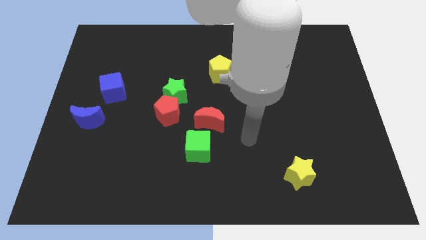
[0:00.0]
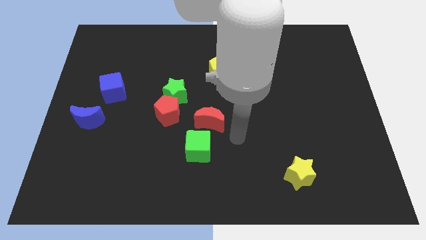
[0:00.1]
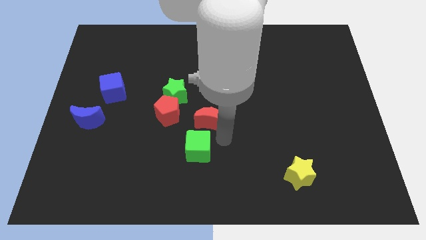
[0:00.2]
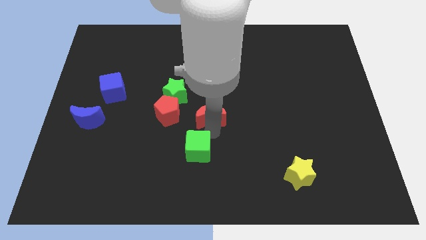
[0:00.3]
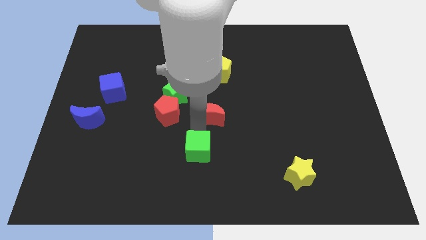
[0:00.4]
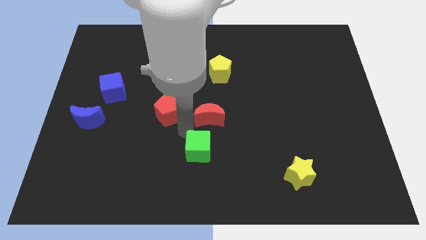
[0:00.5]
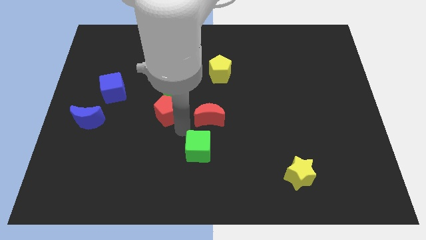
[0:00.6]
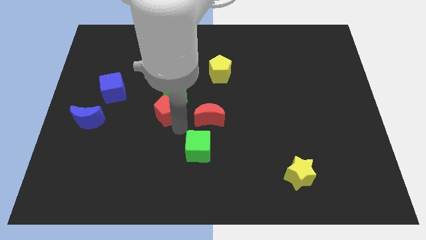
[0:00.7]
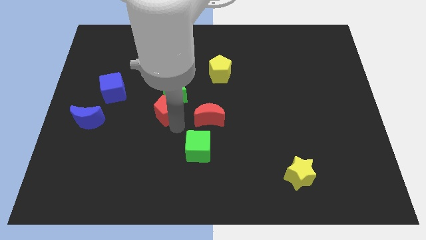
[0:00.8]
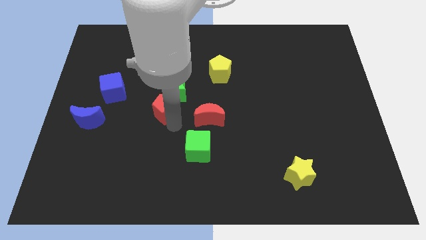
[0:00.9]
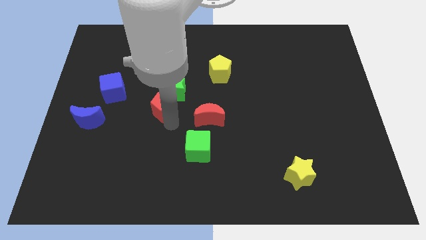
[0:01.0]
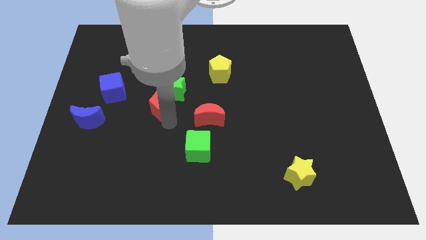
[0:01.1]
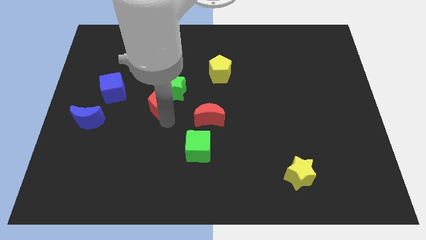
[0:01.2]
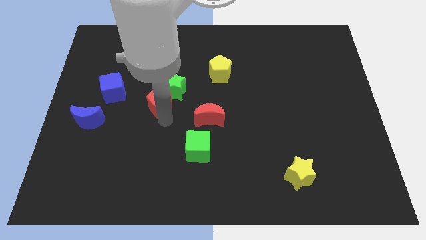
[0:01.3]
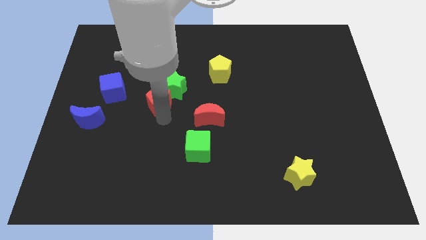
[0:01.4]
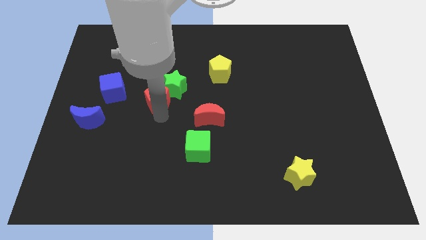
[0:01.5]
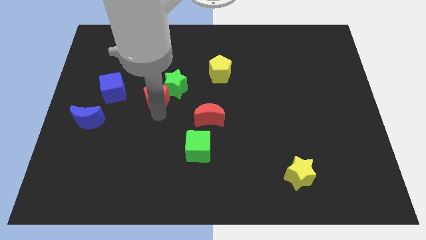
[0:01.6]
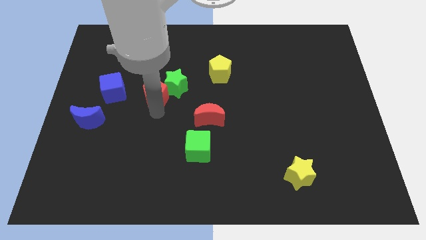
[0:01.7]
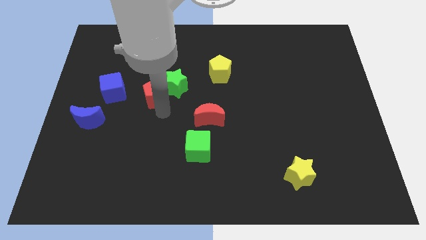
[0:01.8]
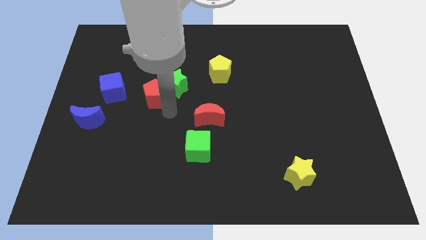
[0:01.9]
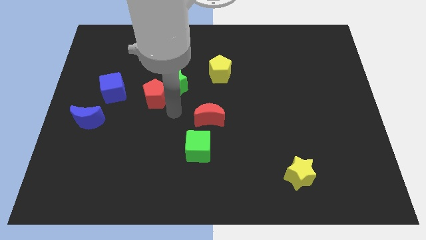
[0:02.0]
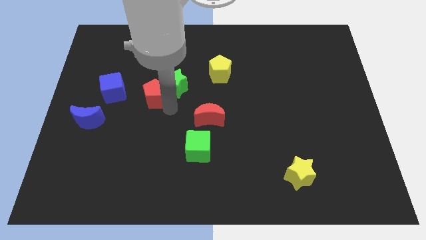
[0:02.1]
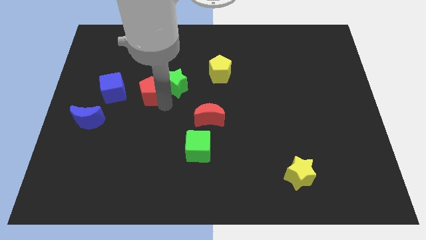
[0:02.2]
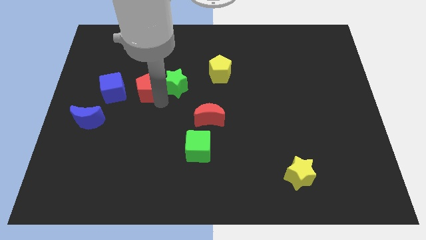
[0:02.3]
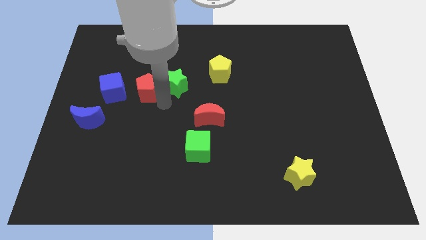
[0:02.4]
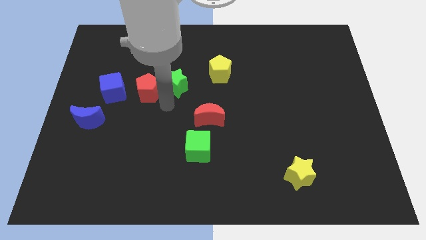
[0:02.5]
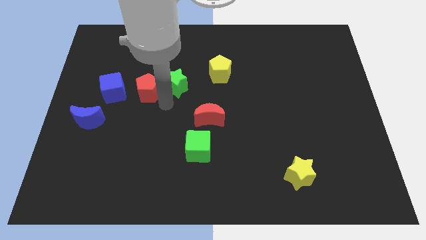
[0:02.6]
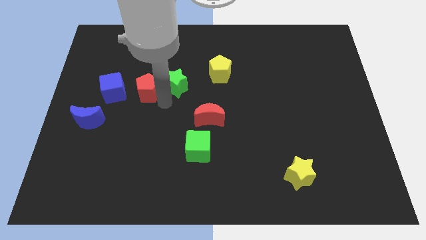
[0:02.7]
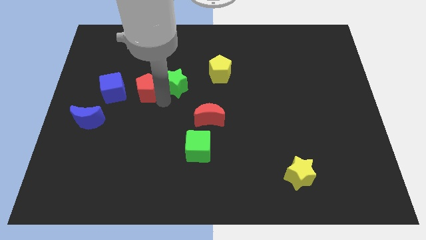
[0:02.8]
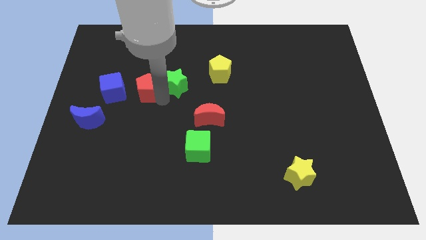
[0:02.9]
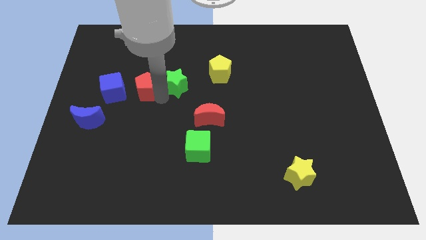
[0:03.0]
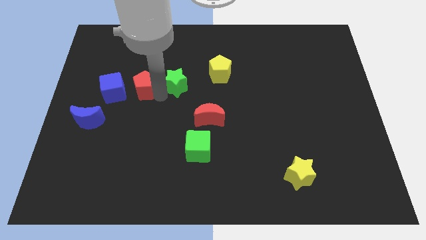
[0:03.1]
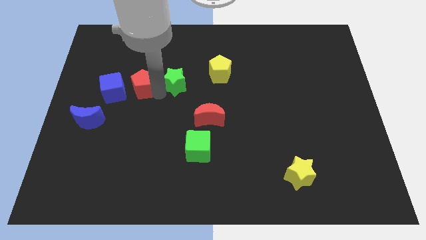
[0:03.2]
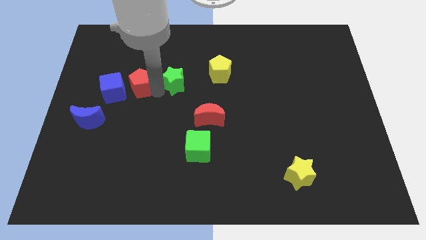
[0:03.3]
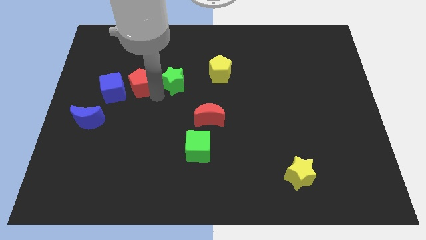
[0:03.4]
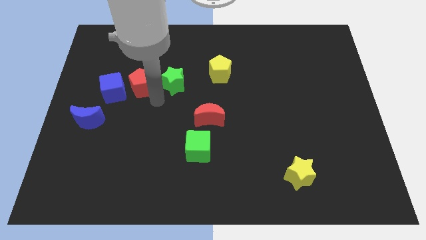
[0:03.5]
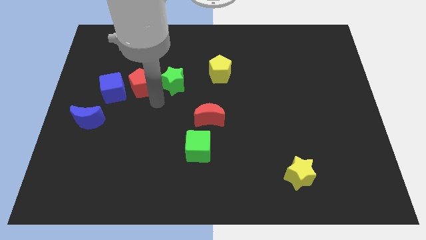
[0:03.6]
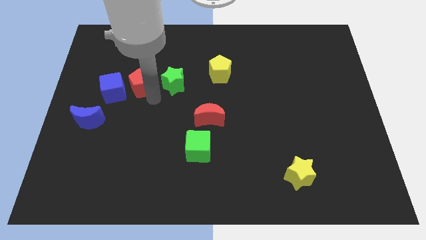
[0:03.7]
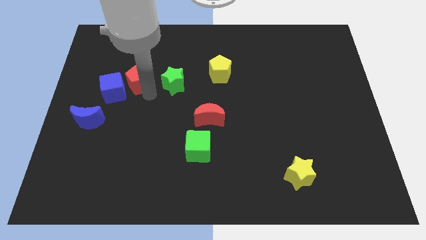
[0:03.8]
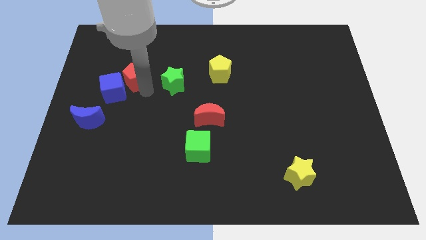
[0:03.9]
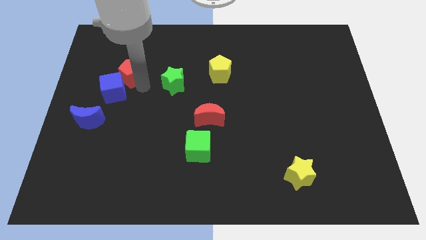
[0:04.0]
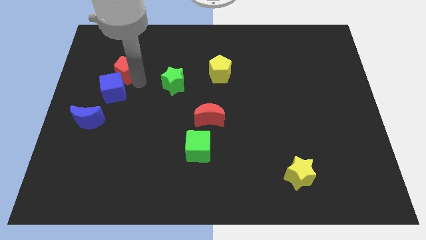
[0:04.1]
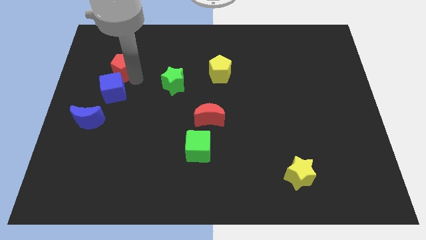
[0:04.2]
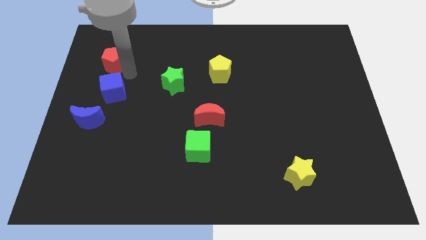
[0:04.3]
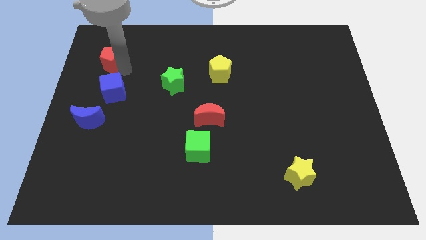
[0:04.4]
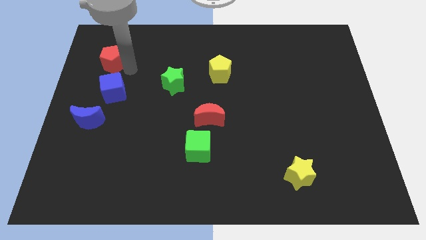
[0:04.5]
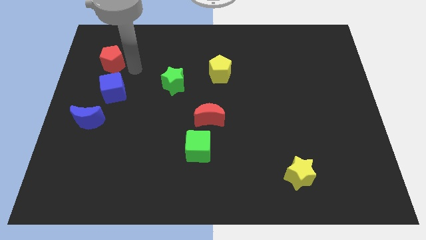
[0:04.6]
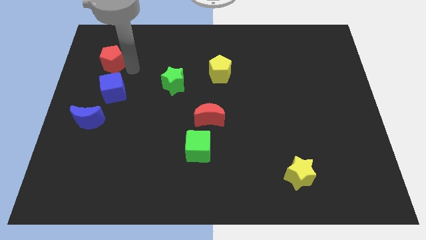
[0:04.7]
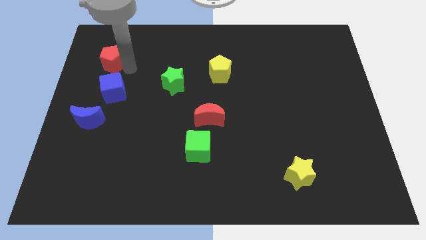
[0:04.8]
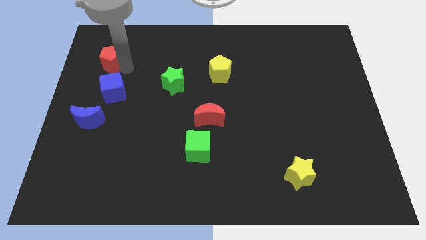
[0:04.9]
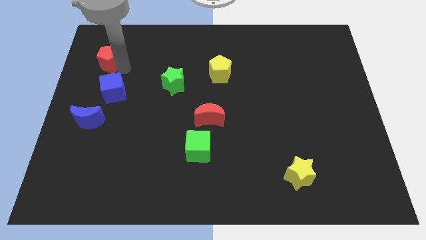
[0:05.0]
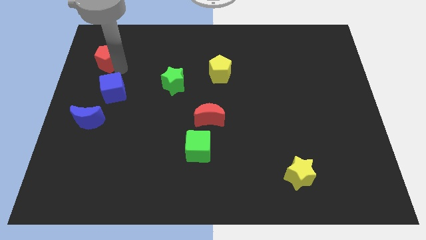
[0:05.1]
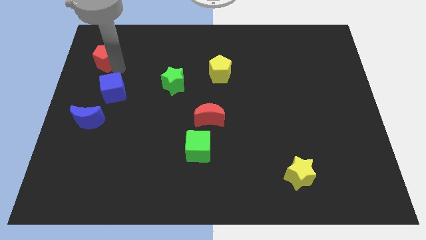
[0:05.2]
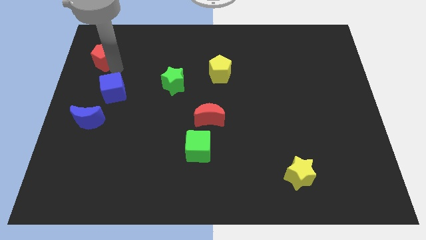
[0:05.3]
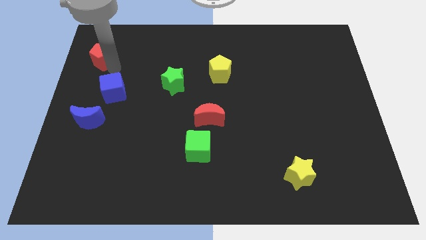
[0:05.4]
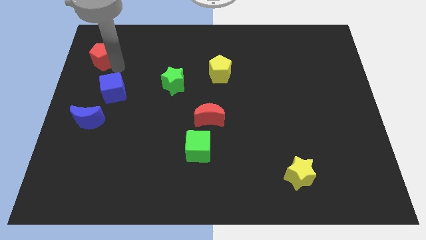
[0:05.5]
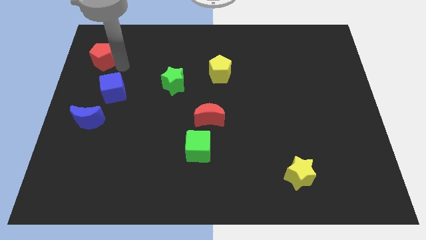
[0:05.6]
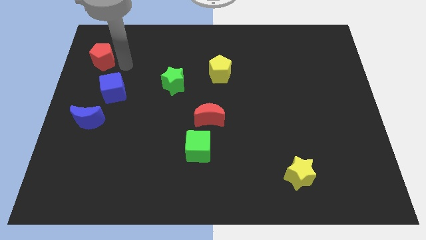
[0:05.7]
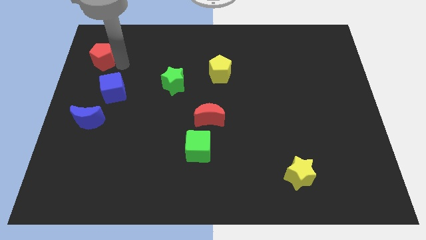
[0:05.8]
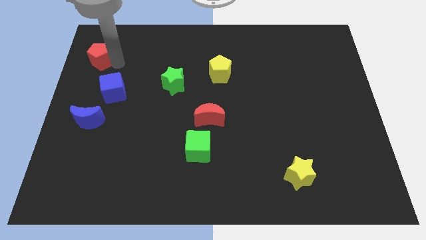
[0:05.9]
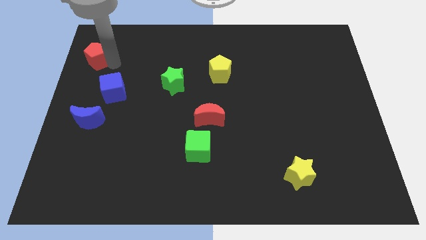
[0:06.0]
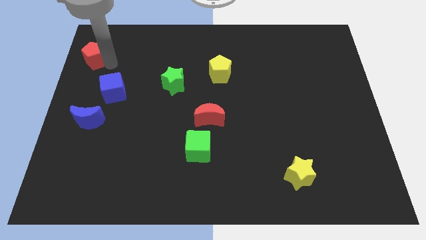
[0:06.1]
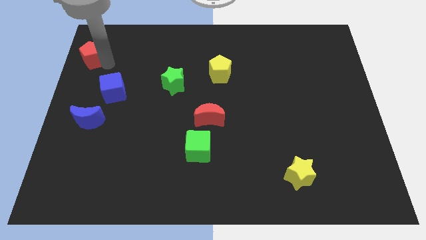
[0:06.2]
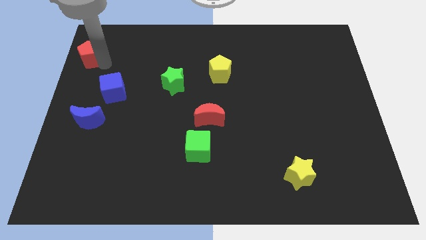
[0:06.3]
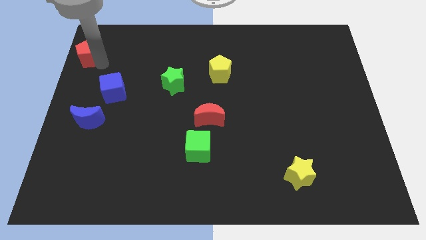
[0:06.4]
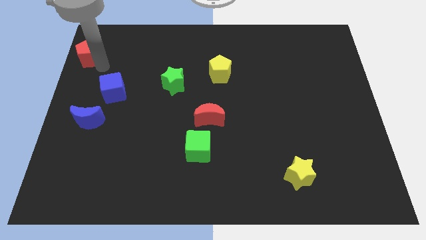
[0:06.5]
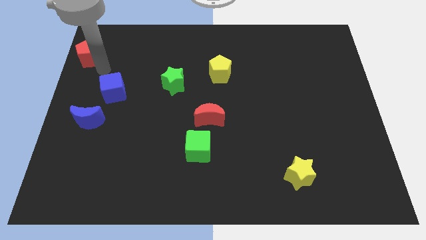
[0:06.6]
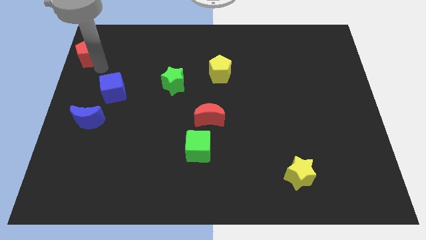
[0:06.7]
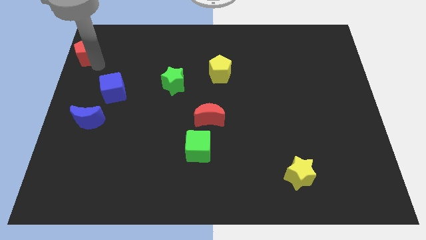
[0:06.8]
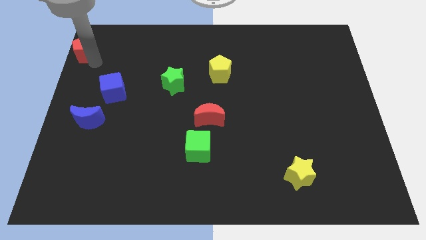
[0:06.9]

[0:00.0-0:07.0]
push the red pentagon to the top left corner
